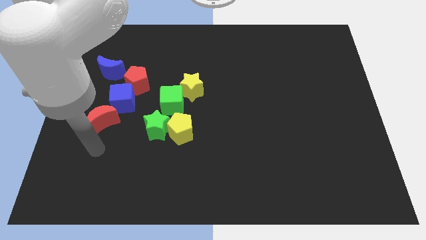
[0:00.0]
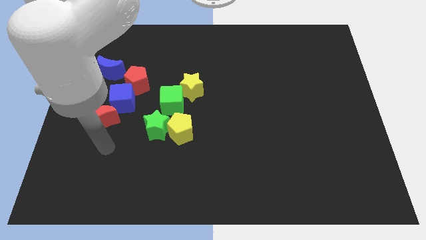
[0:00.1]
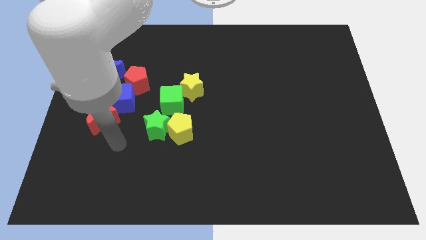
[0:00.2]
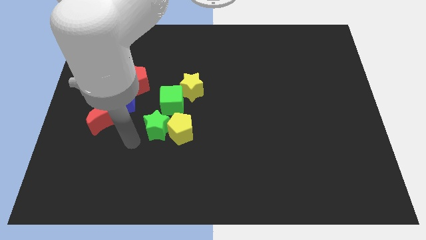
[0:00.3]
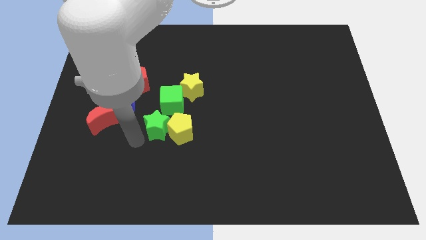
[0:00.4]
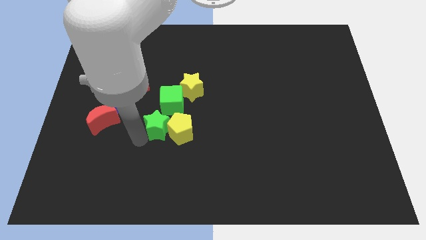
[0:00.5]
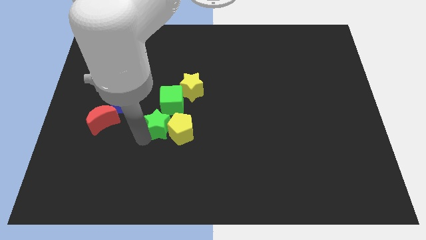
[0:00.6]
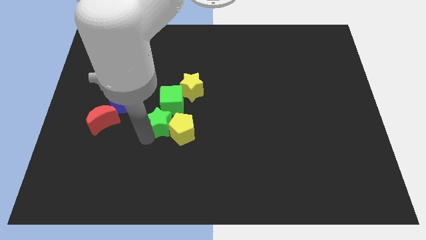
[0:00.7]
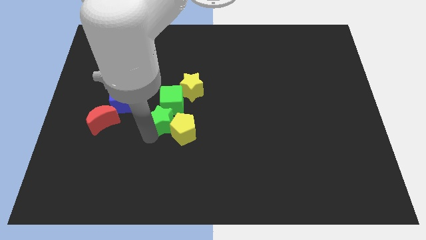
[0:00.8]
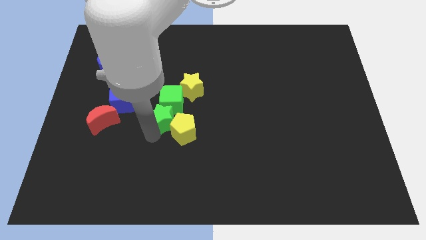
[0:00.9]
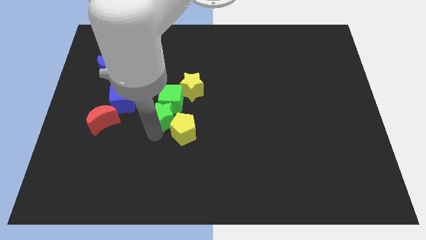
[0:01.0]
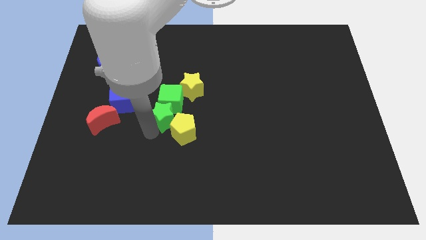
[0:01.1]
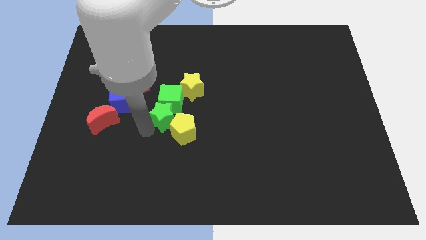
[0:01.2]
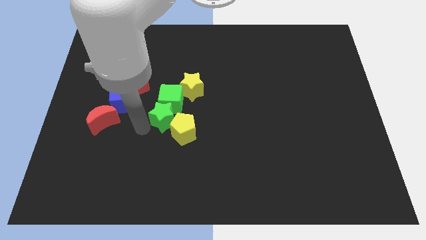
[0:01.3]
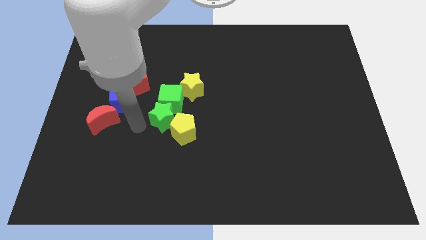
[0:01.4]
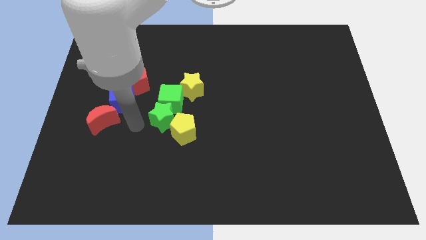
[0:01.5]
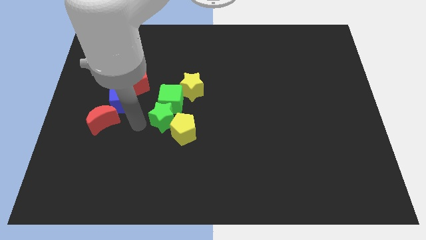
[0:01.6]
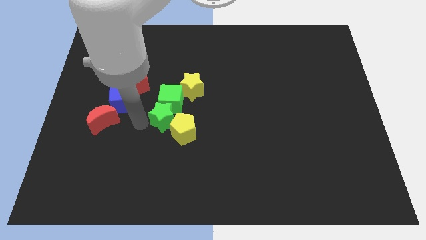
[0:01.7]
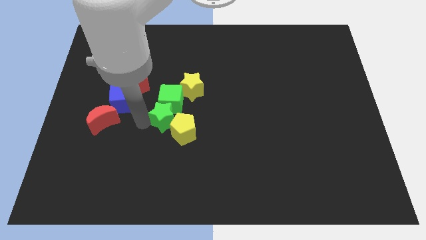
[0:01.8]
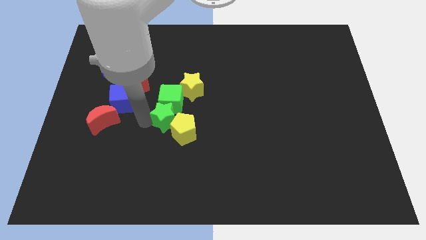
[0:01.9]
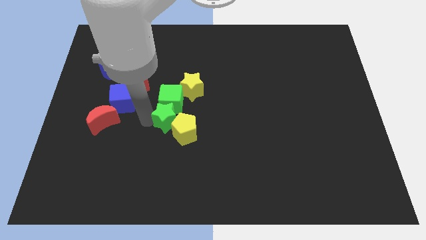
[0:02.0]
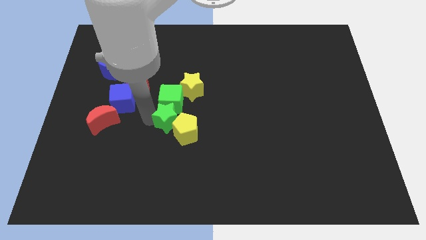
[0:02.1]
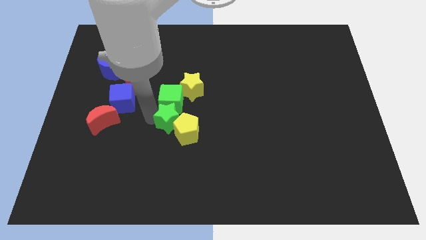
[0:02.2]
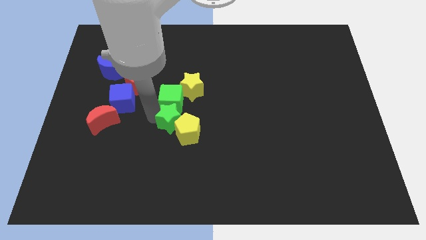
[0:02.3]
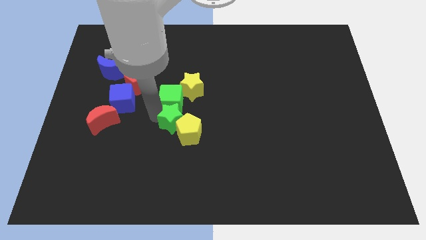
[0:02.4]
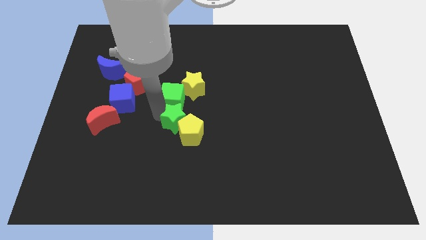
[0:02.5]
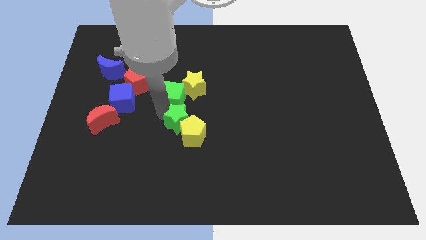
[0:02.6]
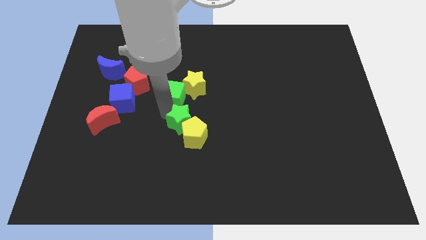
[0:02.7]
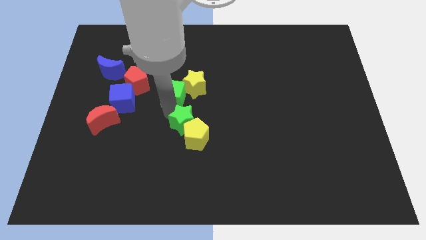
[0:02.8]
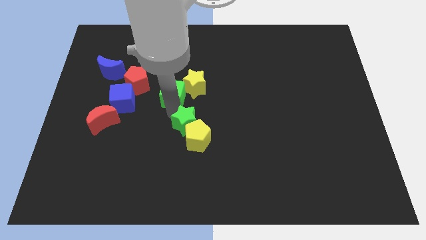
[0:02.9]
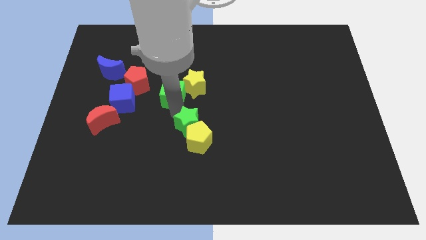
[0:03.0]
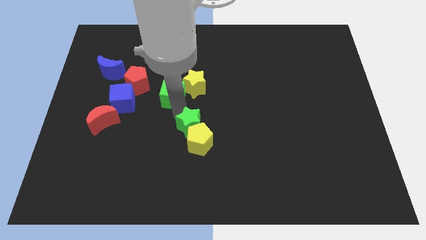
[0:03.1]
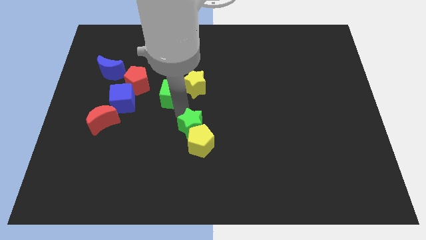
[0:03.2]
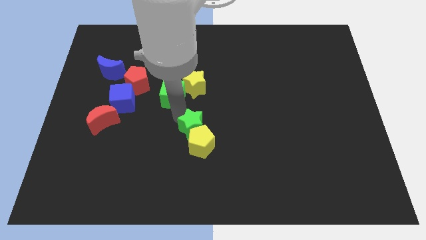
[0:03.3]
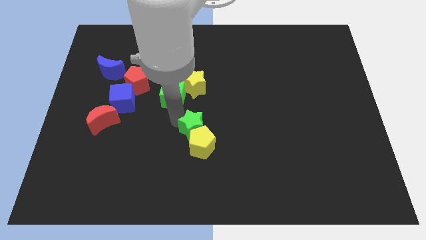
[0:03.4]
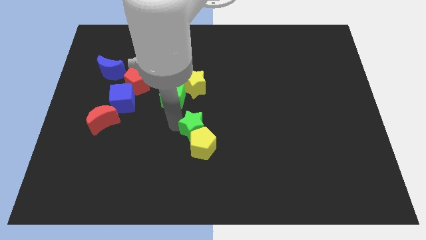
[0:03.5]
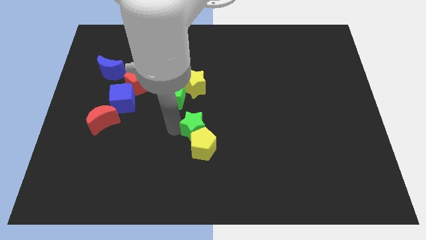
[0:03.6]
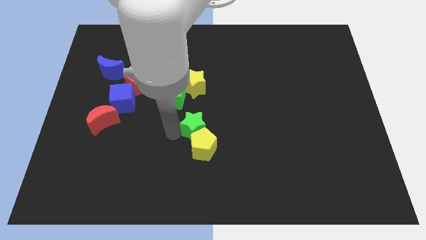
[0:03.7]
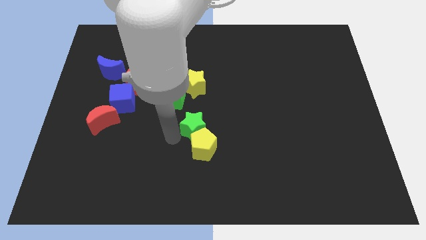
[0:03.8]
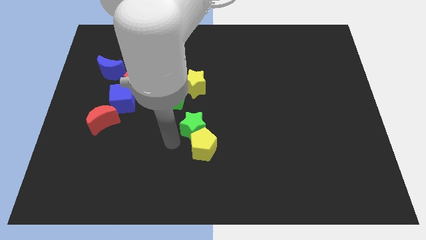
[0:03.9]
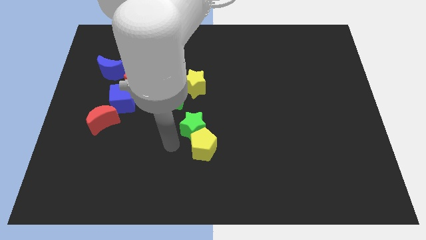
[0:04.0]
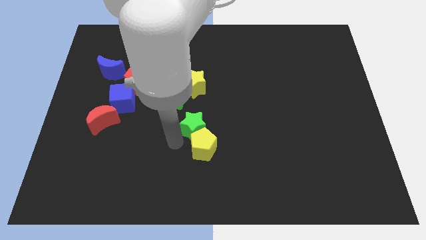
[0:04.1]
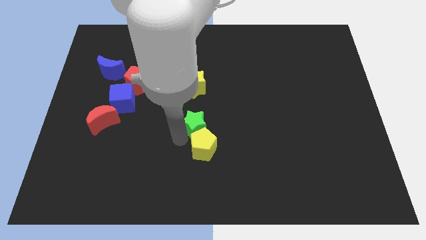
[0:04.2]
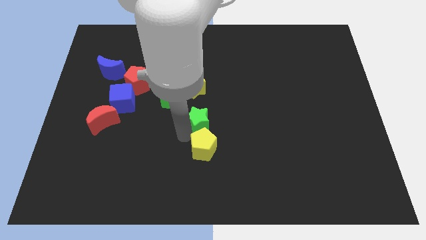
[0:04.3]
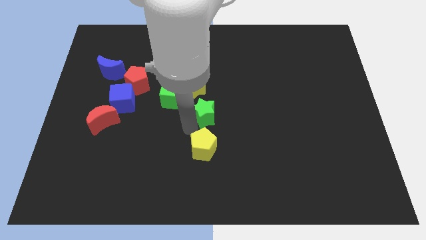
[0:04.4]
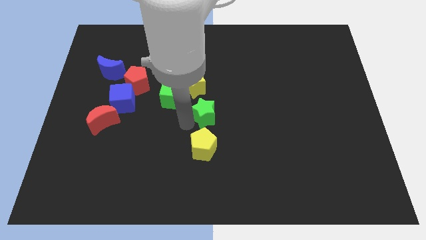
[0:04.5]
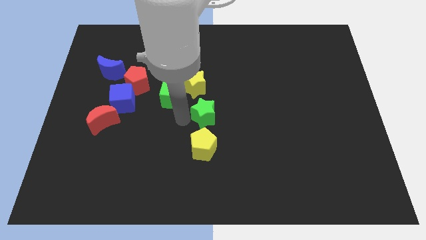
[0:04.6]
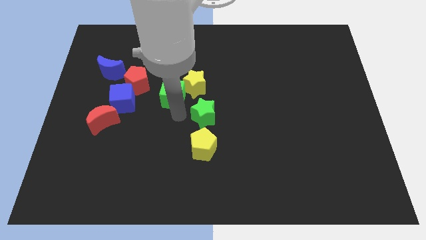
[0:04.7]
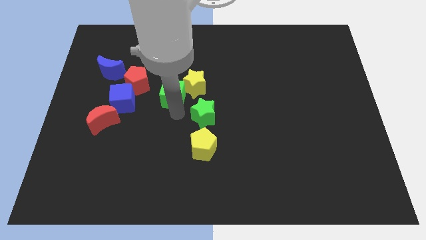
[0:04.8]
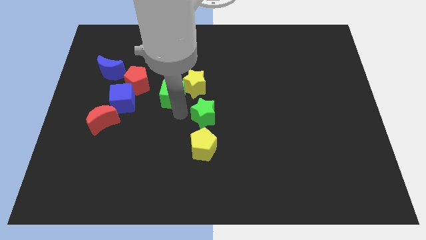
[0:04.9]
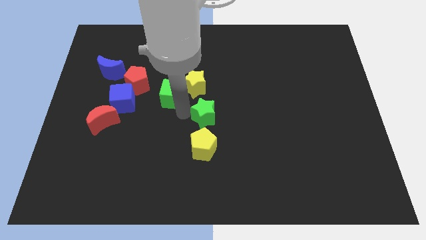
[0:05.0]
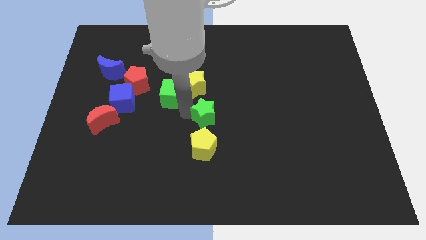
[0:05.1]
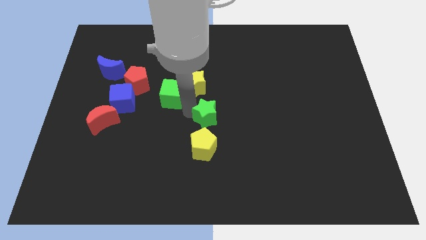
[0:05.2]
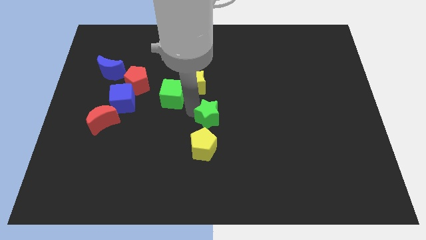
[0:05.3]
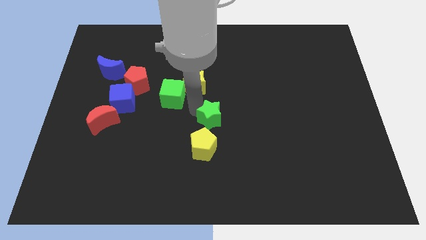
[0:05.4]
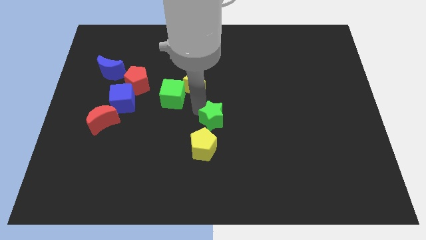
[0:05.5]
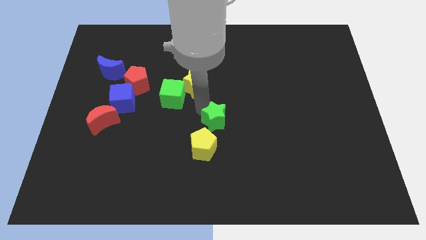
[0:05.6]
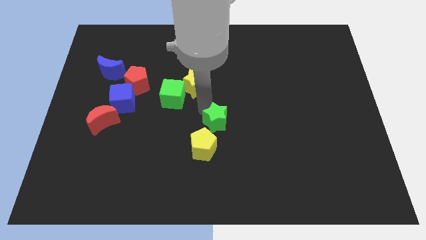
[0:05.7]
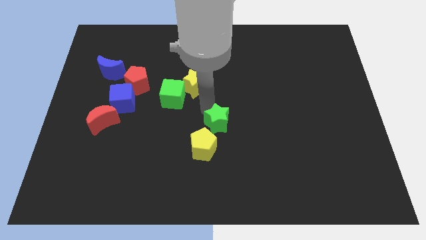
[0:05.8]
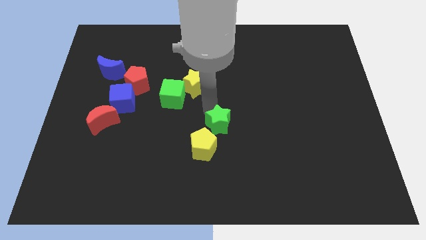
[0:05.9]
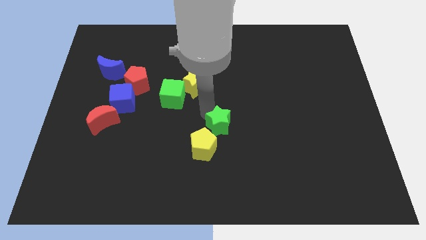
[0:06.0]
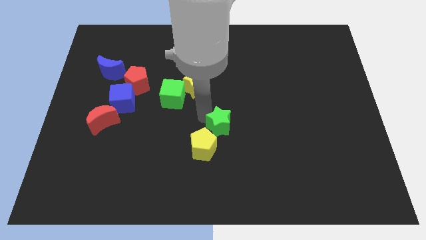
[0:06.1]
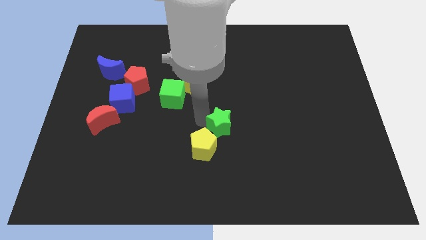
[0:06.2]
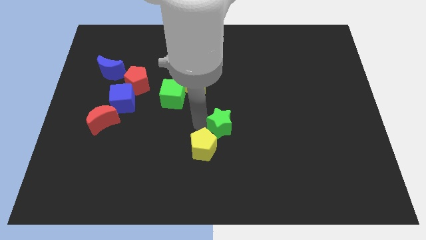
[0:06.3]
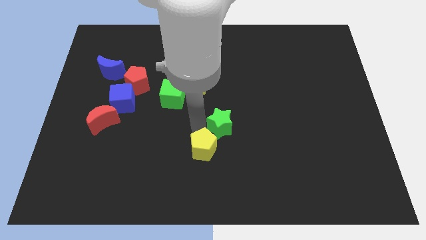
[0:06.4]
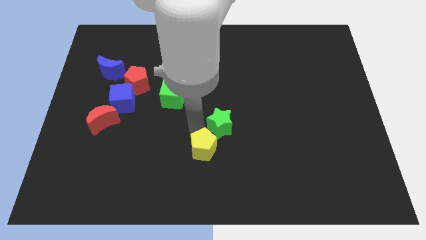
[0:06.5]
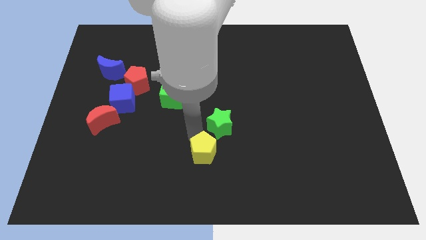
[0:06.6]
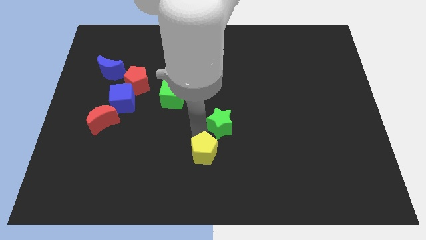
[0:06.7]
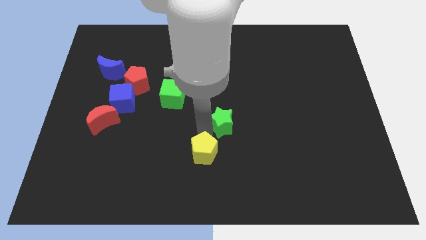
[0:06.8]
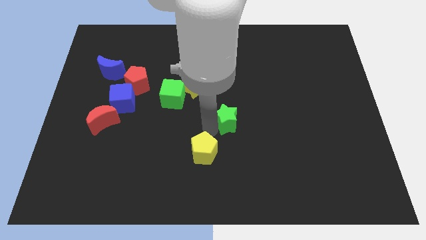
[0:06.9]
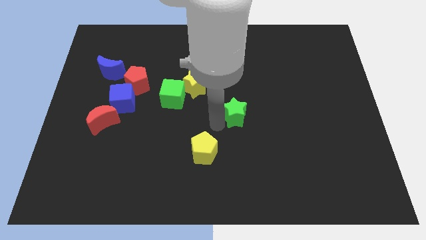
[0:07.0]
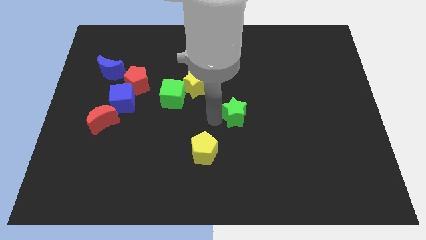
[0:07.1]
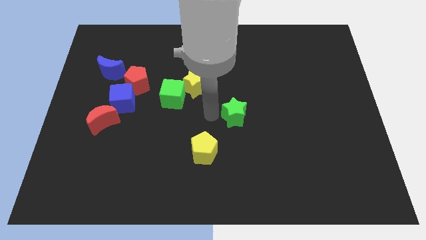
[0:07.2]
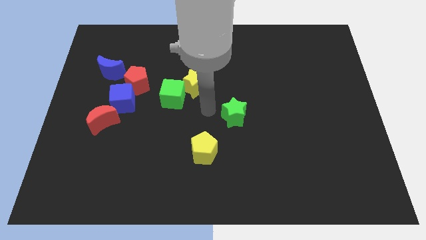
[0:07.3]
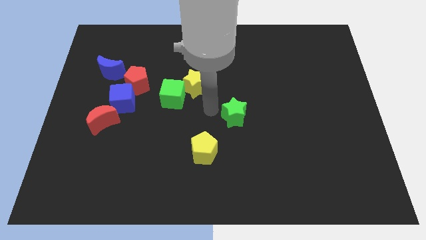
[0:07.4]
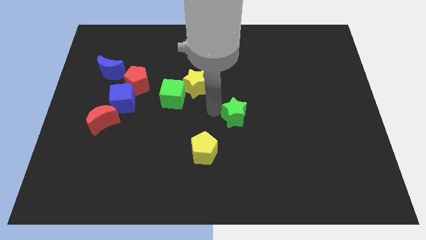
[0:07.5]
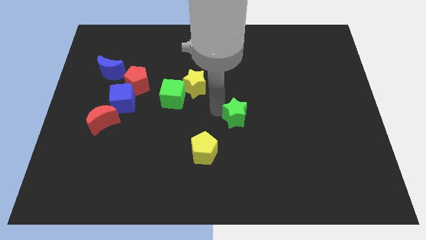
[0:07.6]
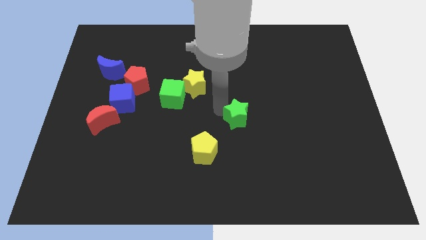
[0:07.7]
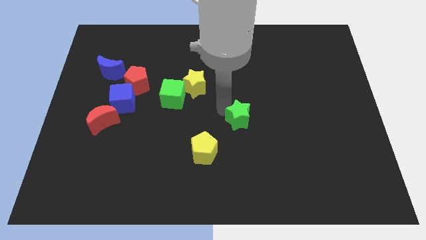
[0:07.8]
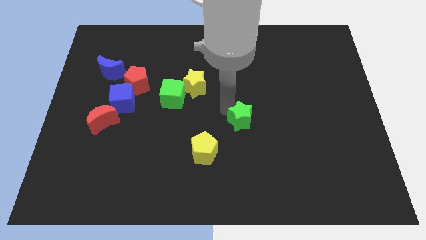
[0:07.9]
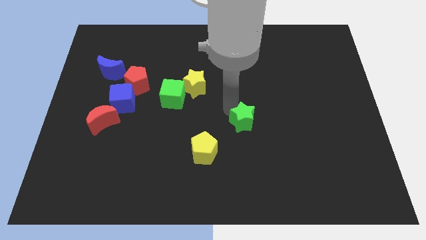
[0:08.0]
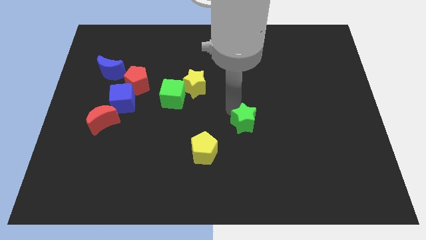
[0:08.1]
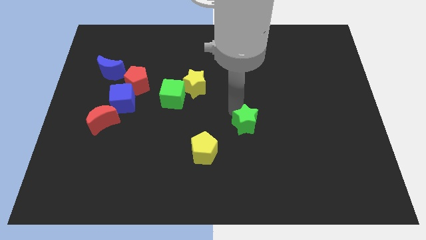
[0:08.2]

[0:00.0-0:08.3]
move the green star to the right

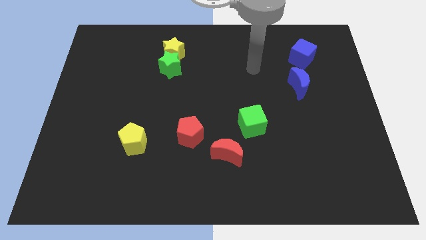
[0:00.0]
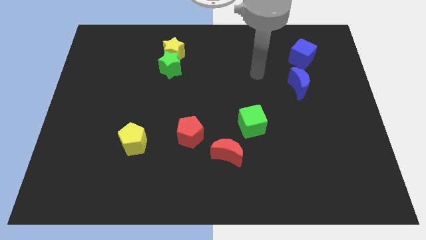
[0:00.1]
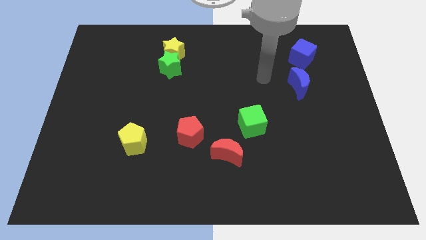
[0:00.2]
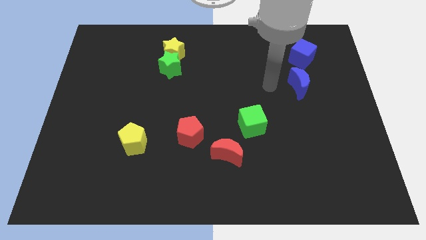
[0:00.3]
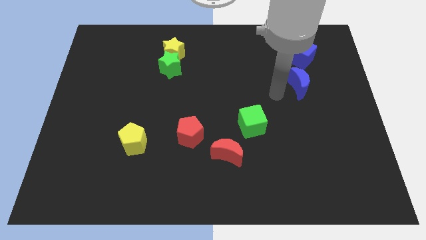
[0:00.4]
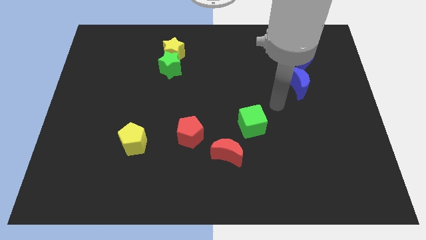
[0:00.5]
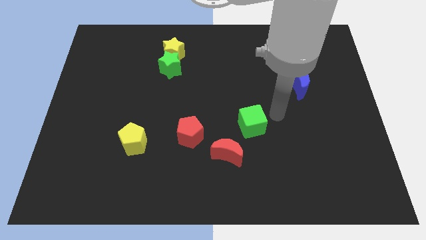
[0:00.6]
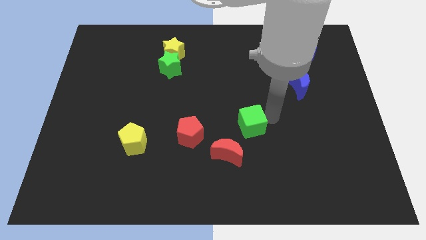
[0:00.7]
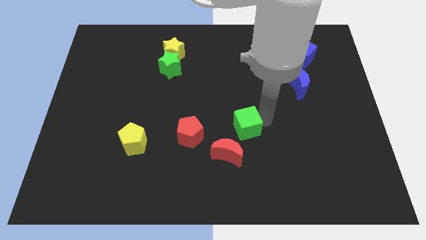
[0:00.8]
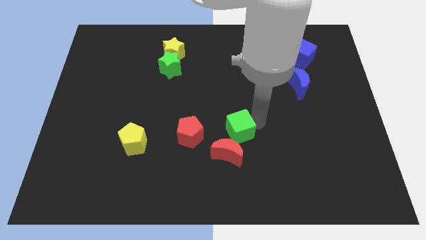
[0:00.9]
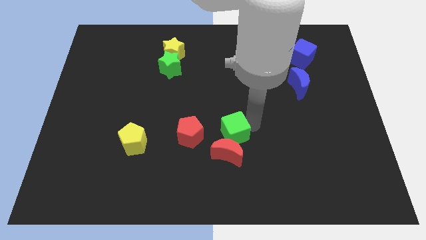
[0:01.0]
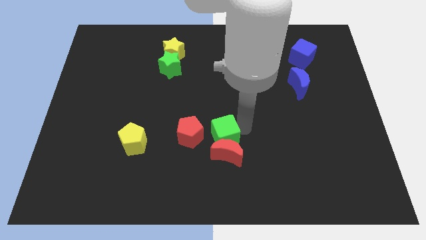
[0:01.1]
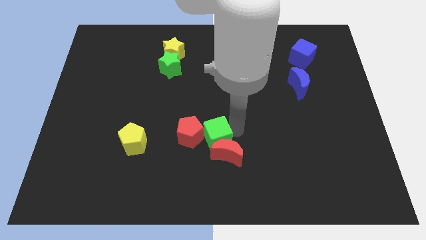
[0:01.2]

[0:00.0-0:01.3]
move the green cube a little diagonally downwards and left
